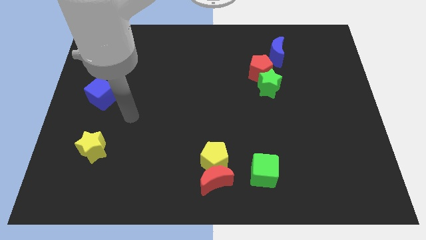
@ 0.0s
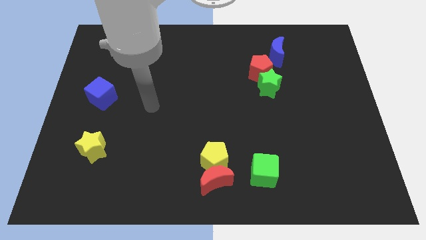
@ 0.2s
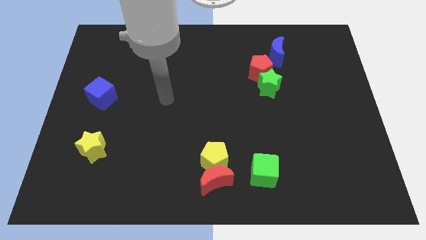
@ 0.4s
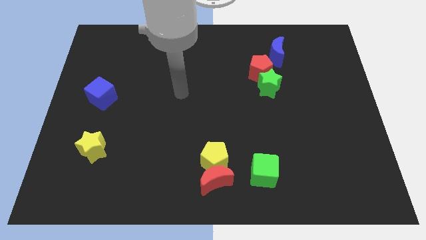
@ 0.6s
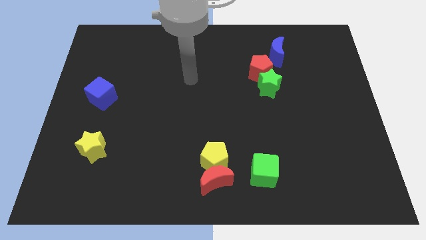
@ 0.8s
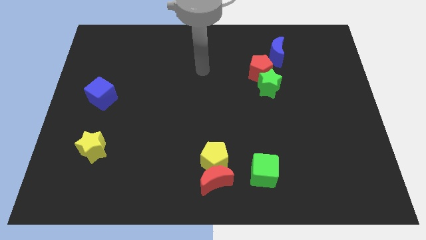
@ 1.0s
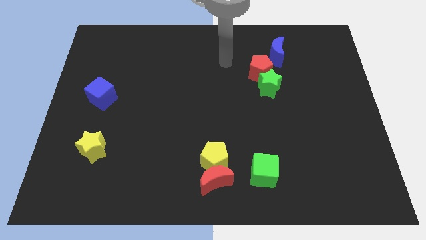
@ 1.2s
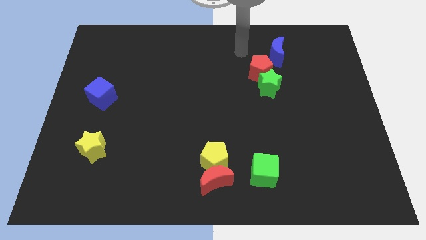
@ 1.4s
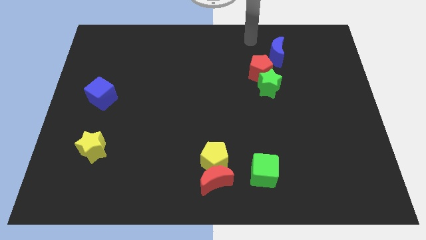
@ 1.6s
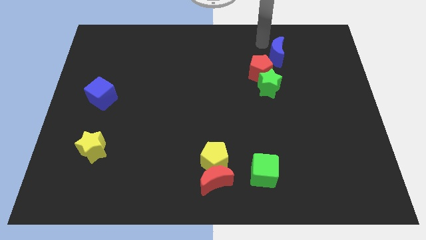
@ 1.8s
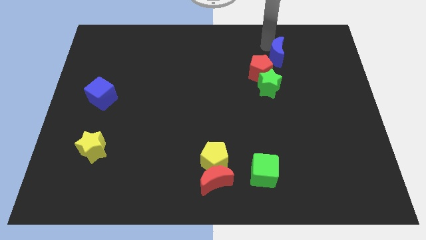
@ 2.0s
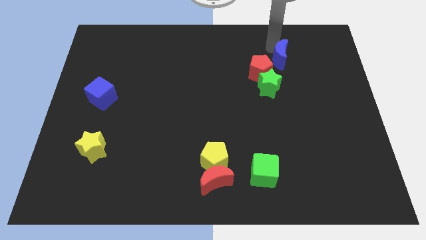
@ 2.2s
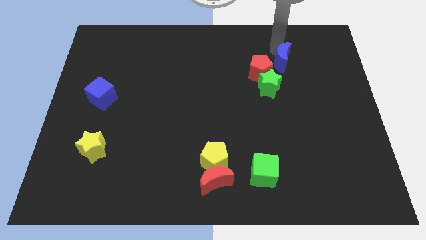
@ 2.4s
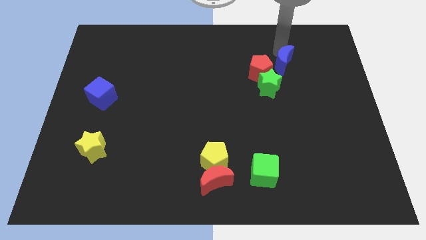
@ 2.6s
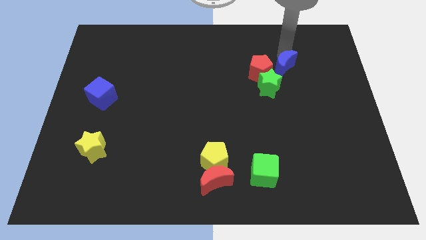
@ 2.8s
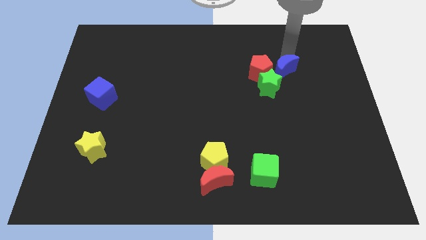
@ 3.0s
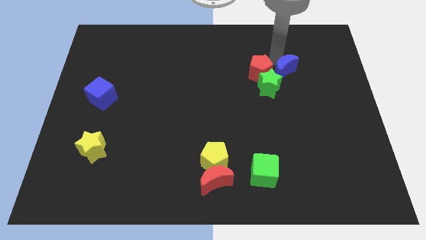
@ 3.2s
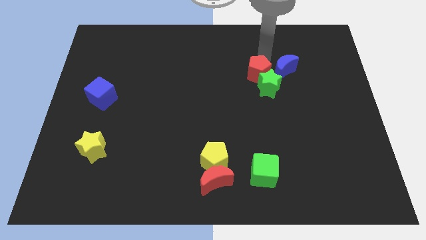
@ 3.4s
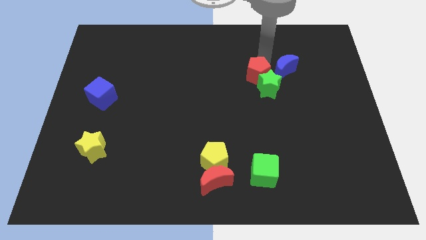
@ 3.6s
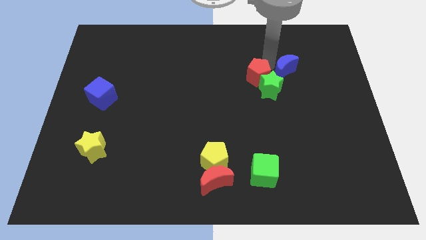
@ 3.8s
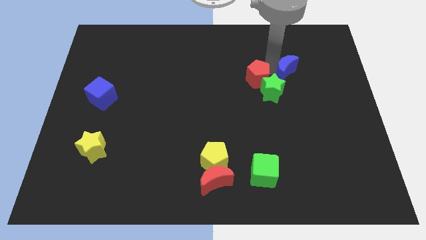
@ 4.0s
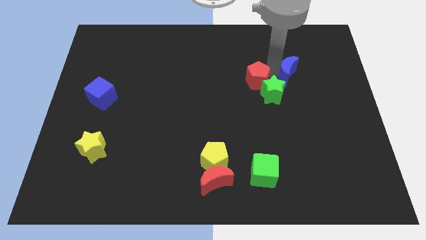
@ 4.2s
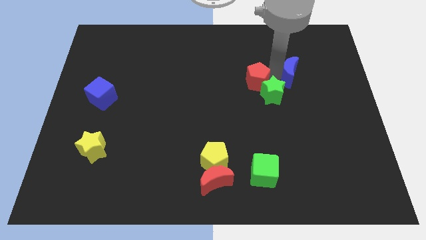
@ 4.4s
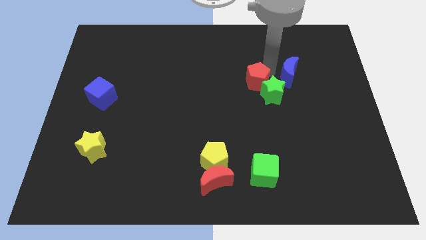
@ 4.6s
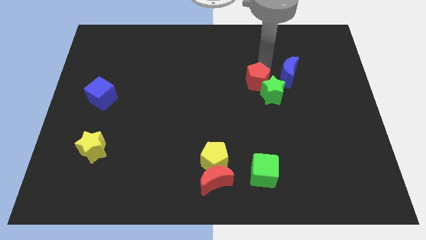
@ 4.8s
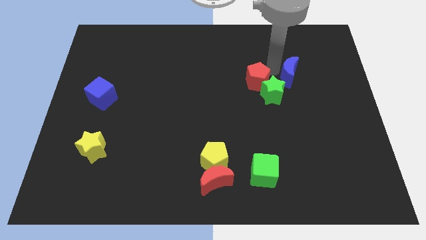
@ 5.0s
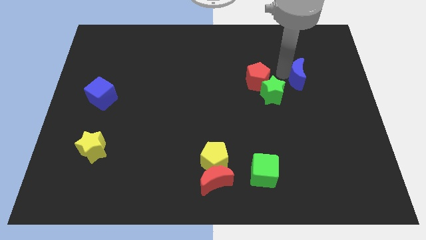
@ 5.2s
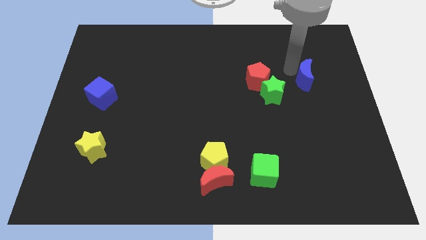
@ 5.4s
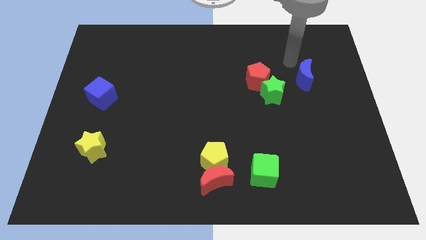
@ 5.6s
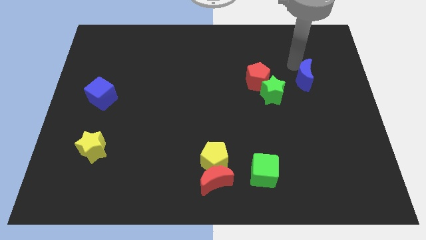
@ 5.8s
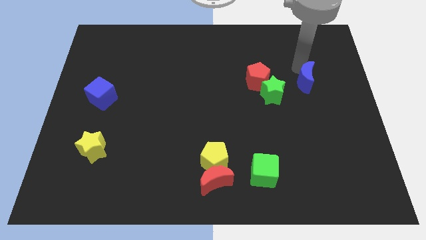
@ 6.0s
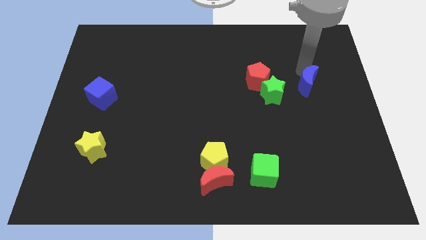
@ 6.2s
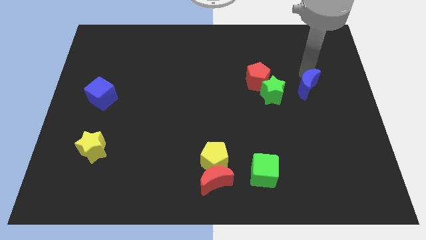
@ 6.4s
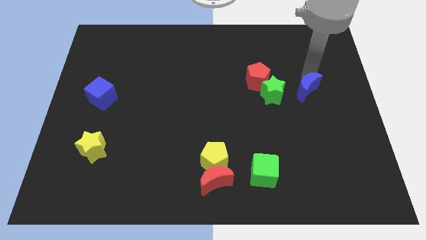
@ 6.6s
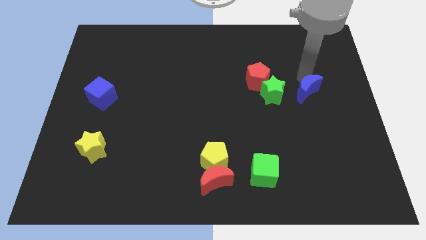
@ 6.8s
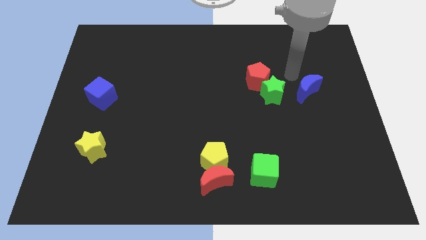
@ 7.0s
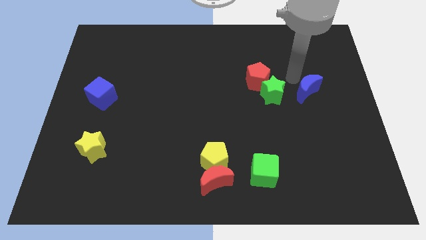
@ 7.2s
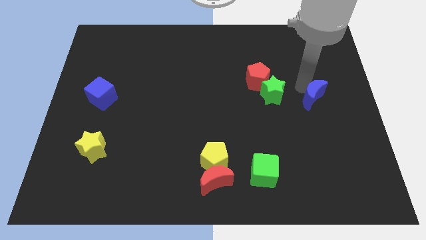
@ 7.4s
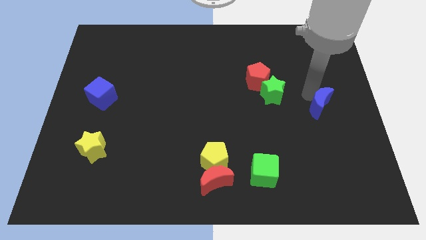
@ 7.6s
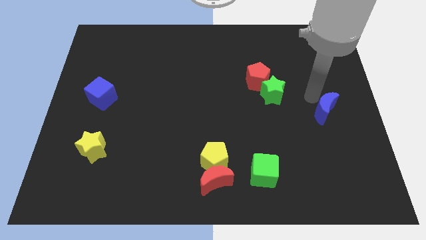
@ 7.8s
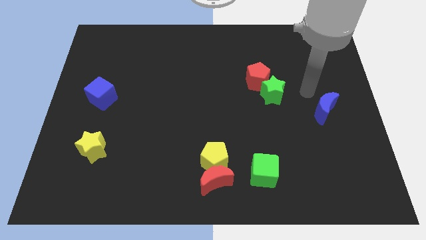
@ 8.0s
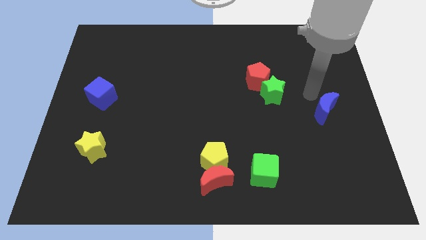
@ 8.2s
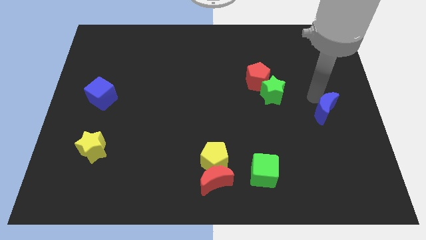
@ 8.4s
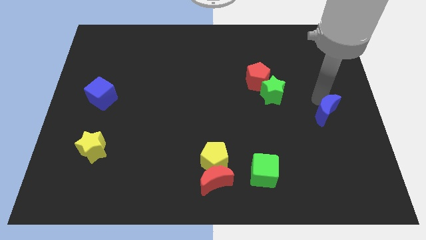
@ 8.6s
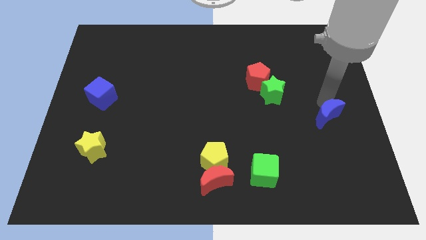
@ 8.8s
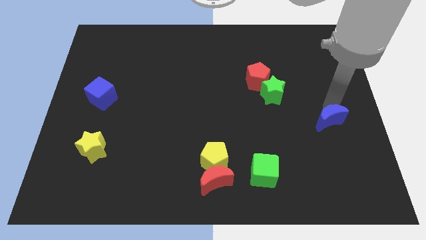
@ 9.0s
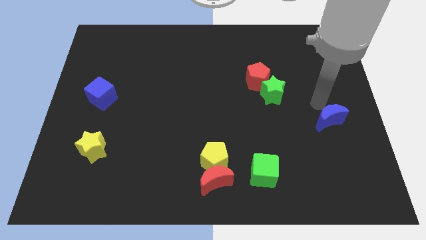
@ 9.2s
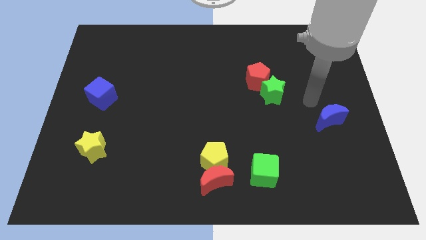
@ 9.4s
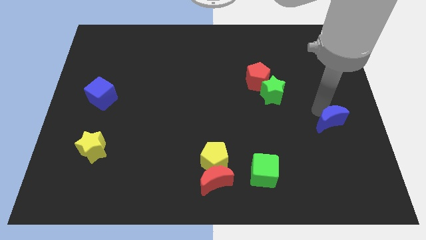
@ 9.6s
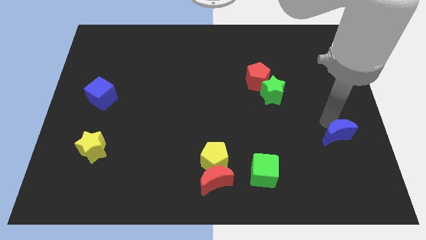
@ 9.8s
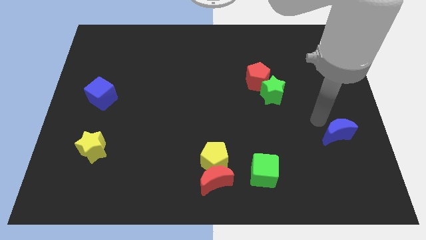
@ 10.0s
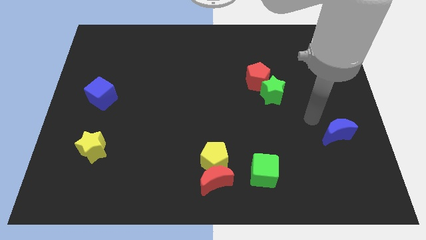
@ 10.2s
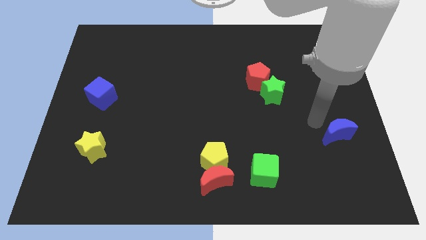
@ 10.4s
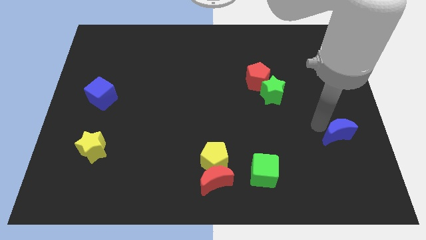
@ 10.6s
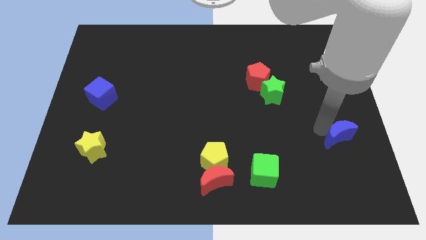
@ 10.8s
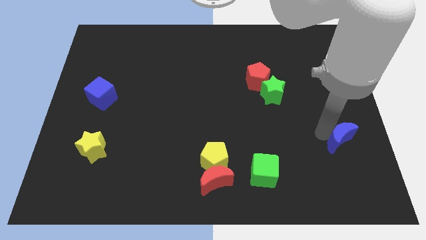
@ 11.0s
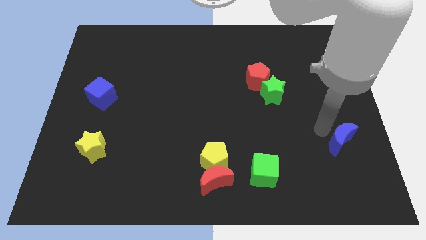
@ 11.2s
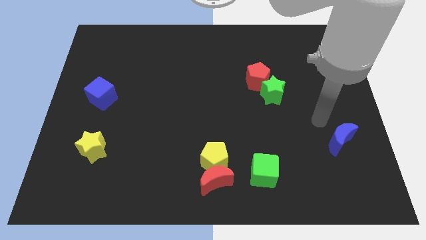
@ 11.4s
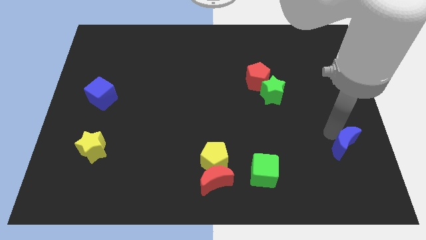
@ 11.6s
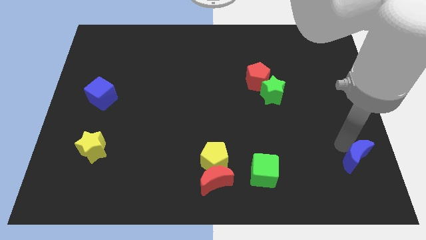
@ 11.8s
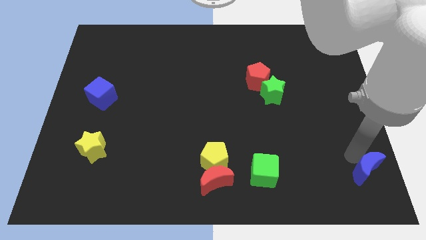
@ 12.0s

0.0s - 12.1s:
slide the blue moon to the lower right corner
